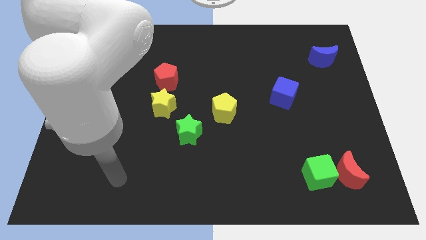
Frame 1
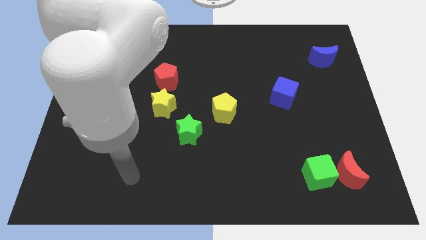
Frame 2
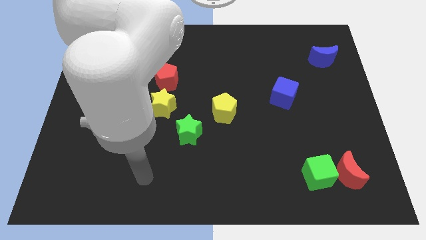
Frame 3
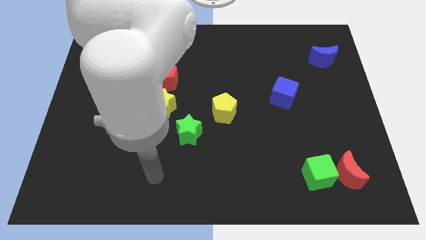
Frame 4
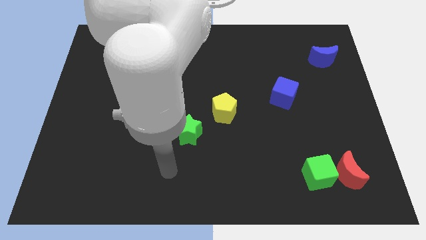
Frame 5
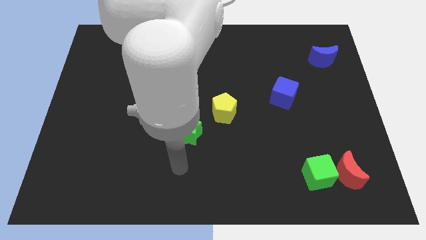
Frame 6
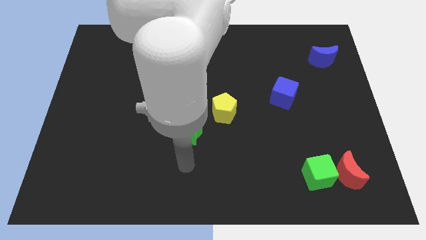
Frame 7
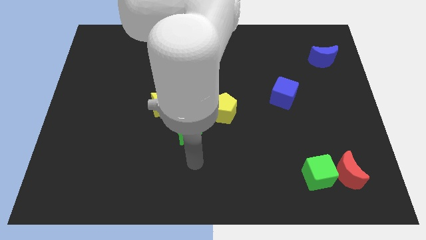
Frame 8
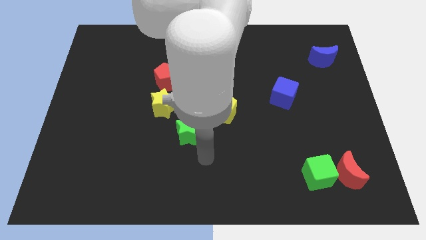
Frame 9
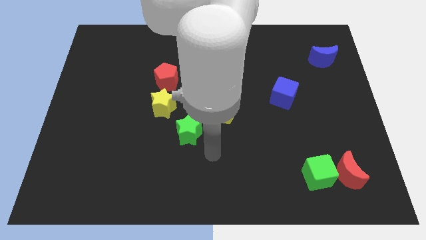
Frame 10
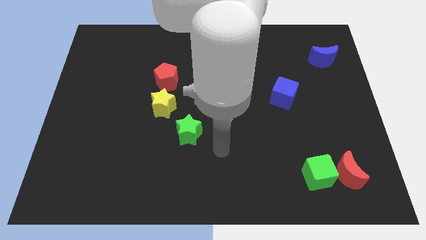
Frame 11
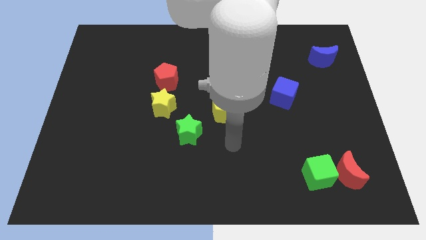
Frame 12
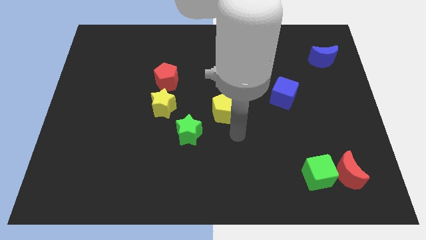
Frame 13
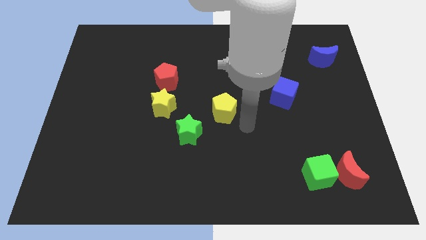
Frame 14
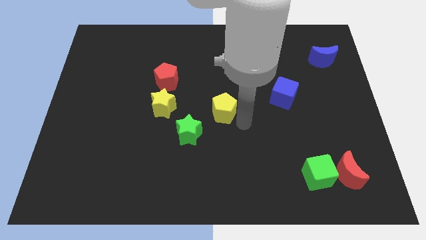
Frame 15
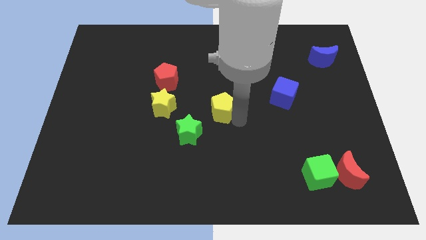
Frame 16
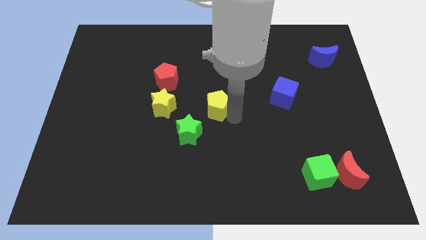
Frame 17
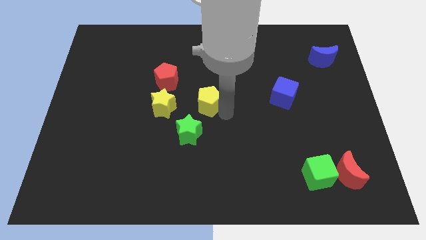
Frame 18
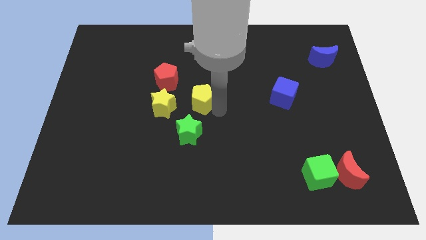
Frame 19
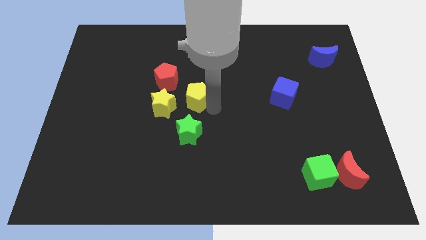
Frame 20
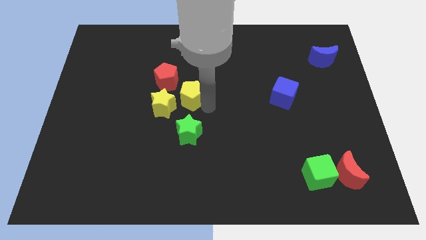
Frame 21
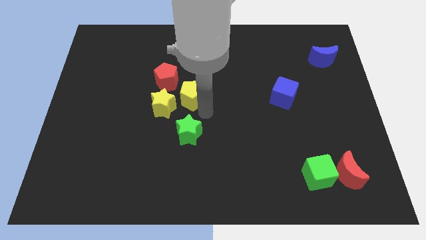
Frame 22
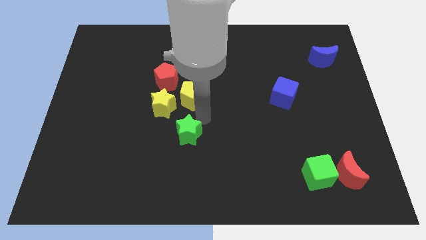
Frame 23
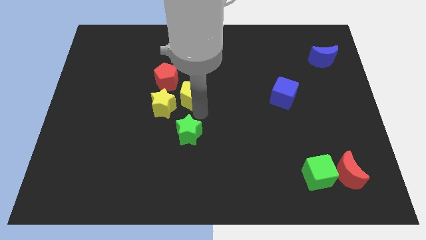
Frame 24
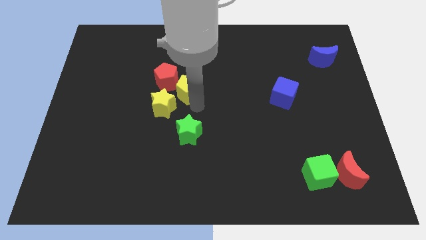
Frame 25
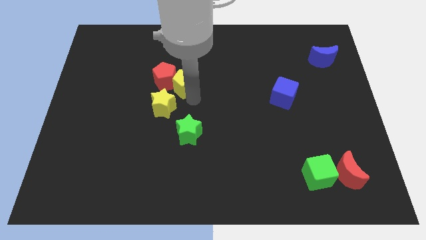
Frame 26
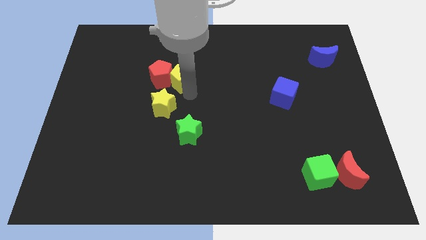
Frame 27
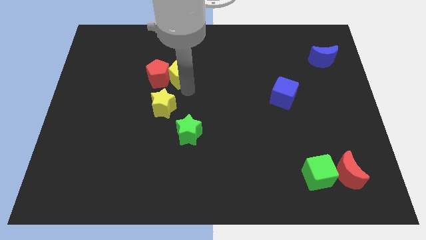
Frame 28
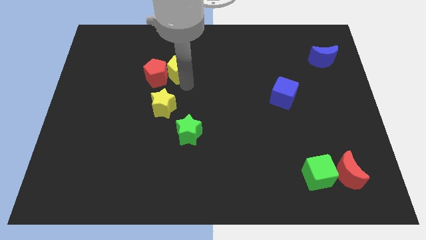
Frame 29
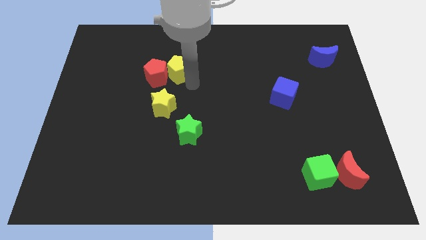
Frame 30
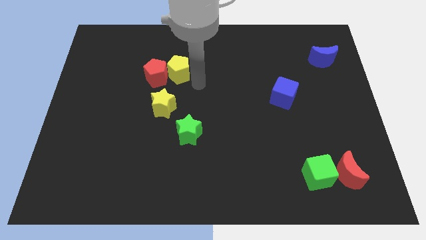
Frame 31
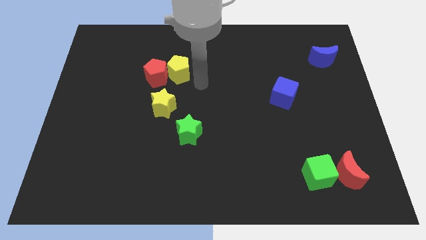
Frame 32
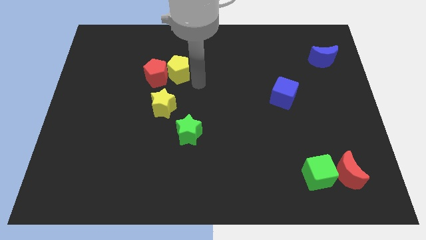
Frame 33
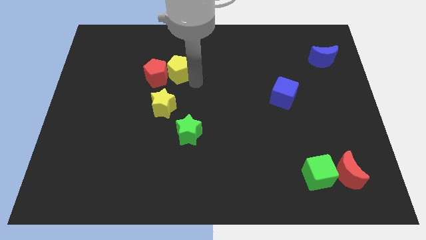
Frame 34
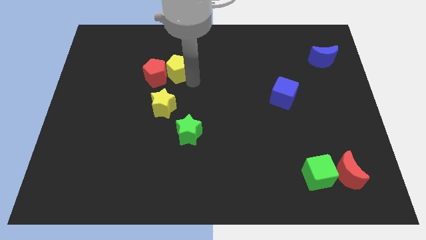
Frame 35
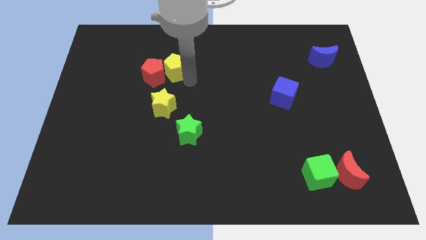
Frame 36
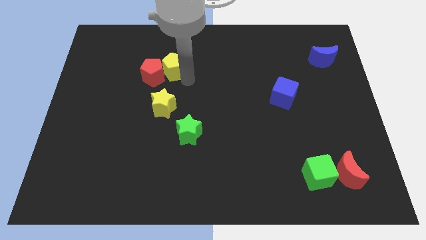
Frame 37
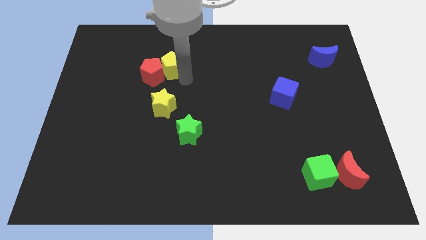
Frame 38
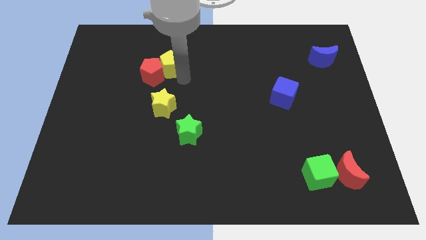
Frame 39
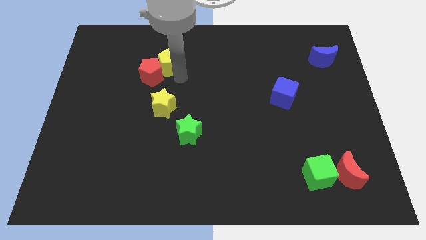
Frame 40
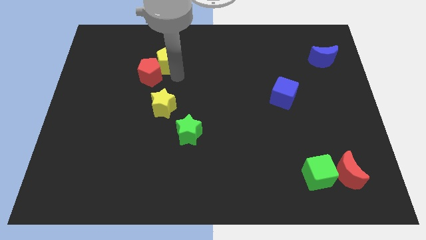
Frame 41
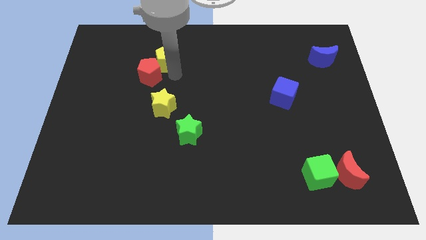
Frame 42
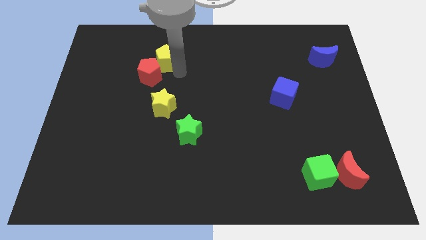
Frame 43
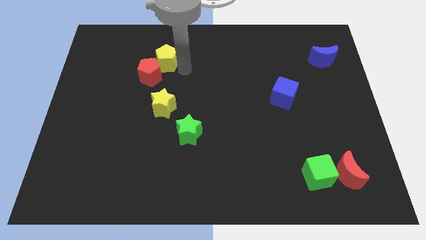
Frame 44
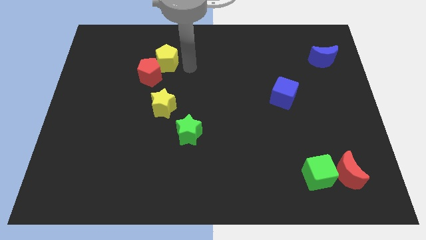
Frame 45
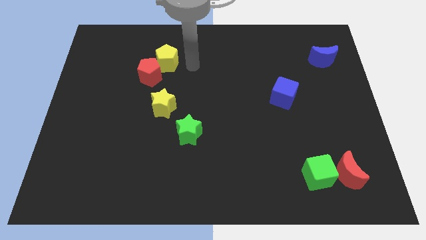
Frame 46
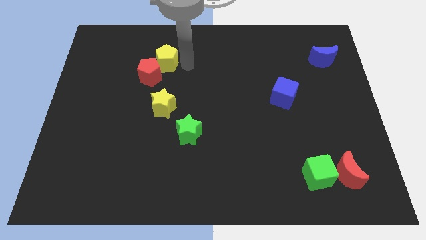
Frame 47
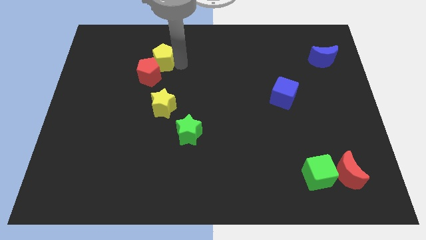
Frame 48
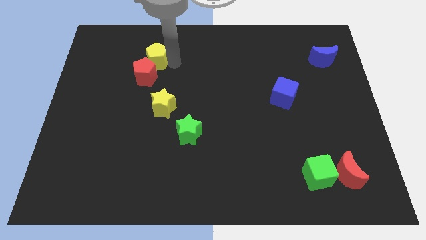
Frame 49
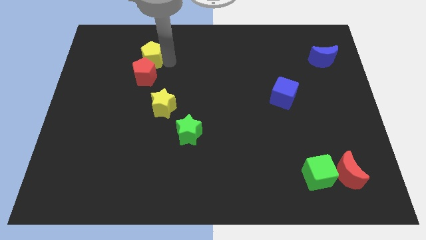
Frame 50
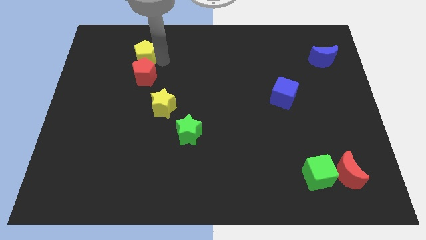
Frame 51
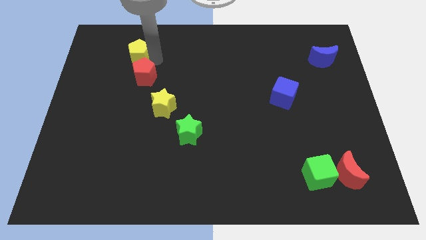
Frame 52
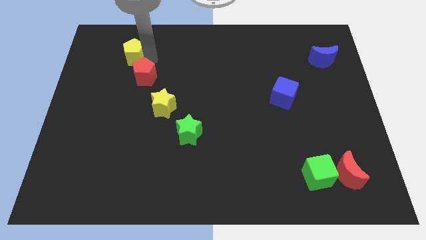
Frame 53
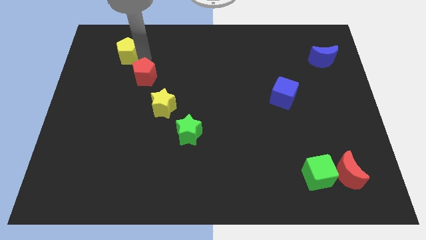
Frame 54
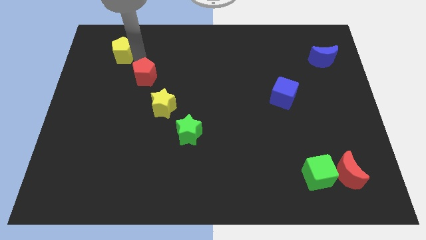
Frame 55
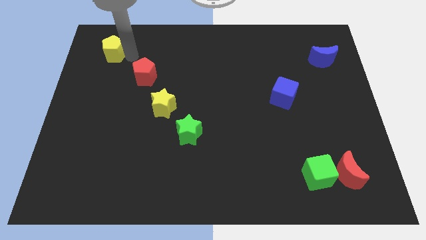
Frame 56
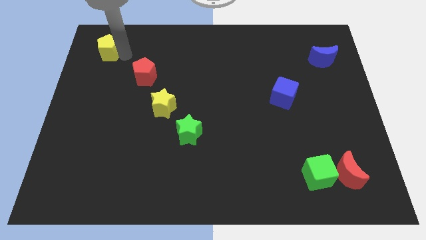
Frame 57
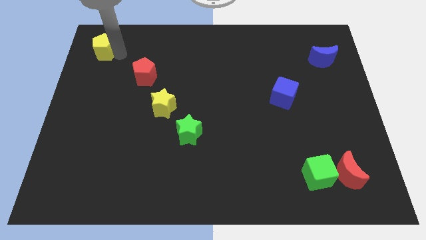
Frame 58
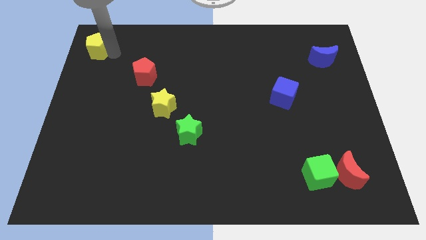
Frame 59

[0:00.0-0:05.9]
push the yellow pentagon to the top left

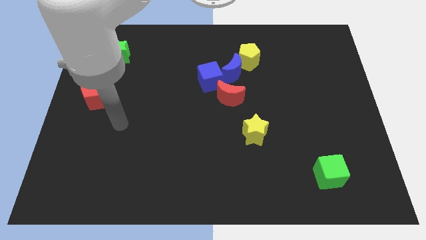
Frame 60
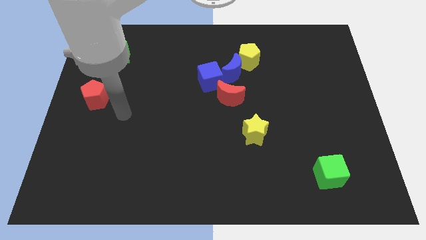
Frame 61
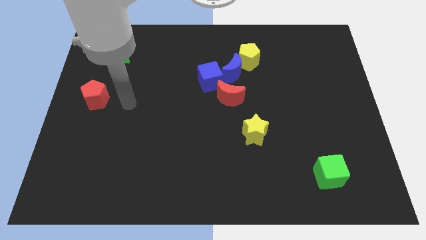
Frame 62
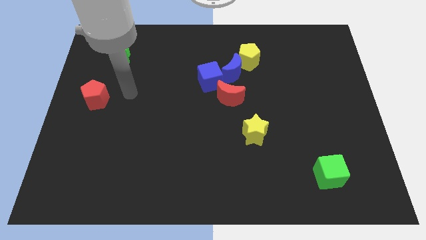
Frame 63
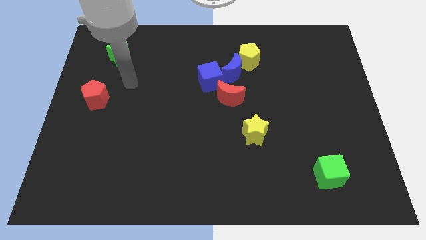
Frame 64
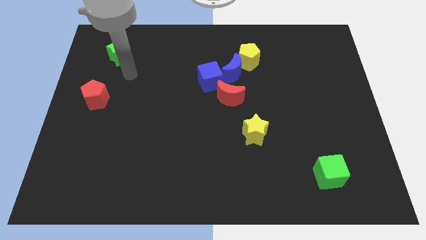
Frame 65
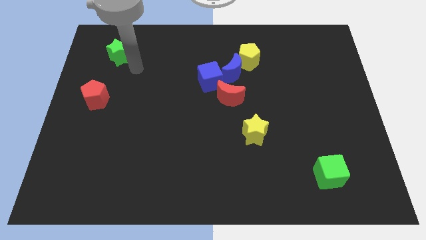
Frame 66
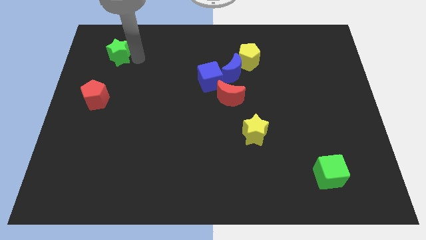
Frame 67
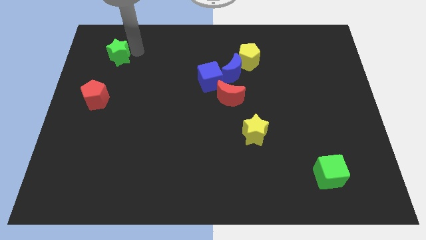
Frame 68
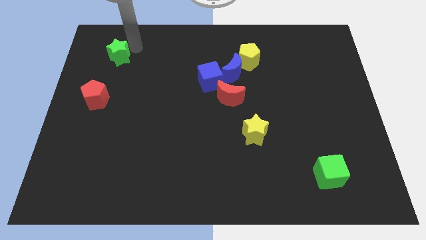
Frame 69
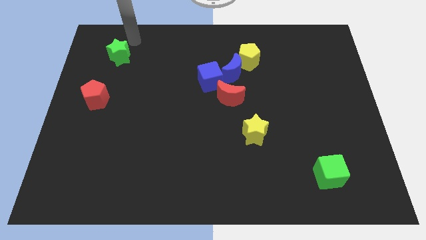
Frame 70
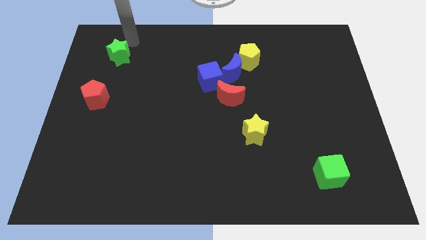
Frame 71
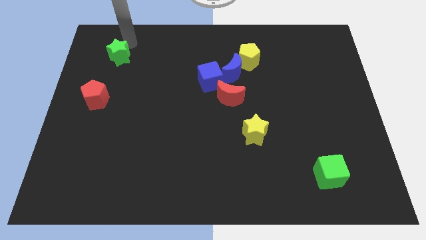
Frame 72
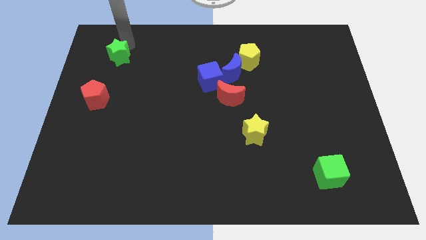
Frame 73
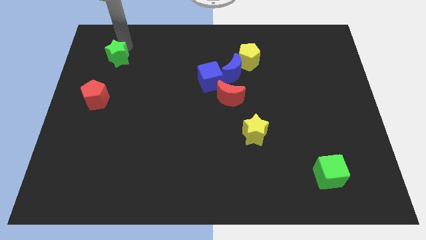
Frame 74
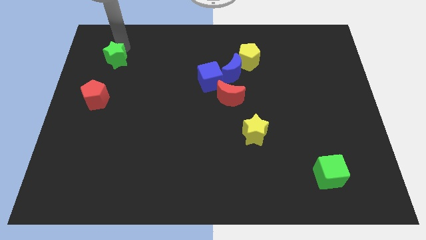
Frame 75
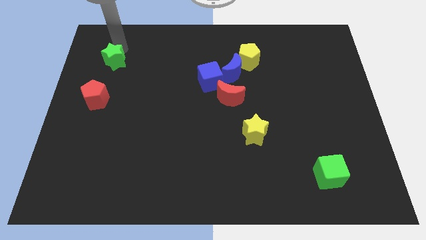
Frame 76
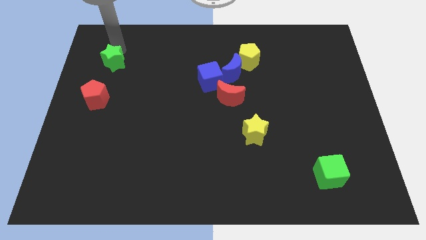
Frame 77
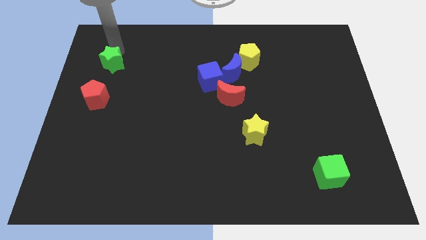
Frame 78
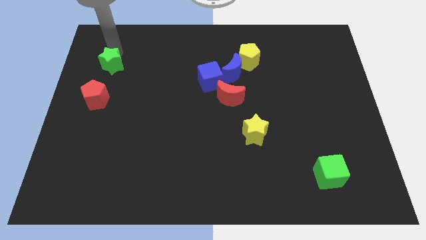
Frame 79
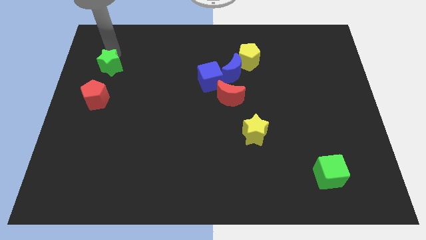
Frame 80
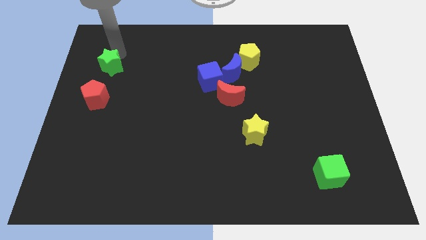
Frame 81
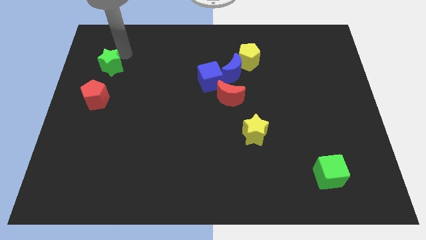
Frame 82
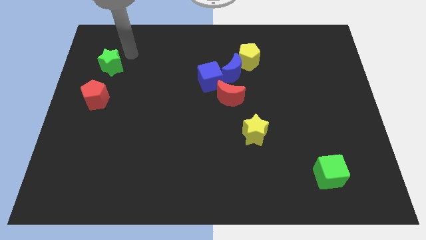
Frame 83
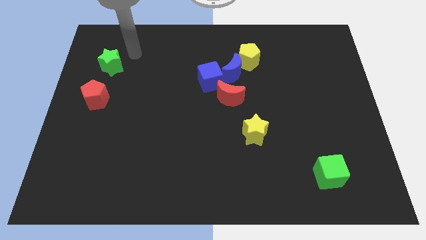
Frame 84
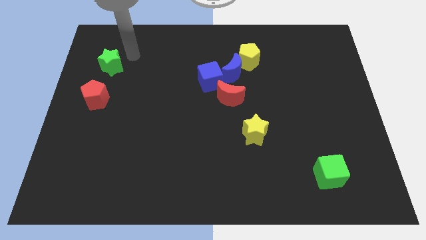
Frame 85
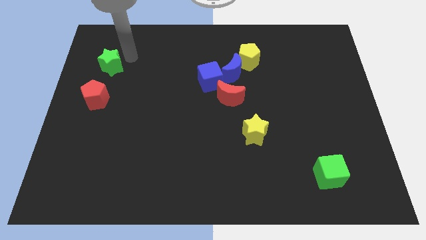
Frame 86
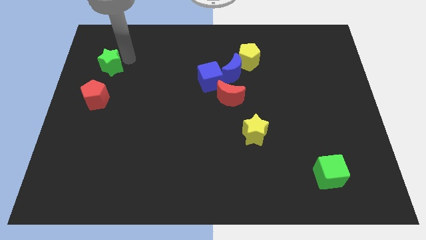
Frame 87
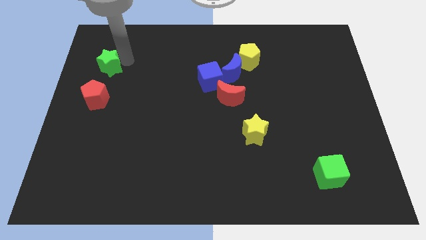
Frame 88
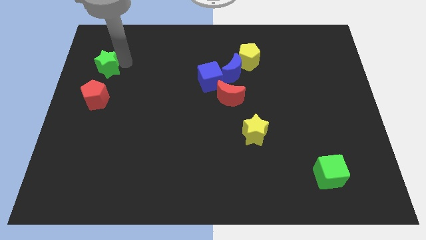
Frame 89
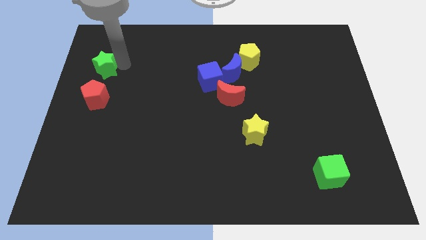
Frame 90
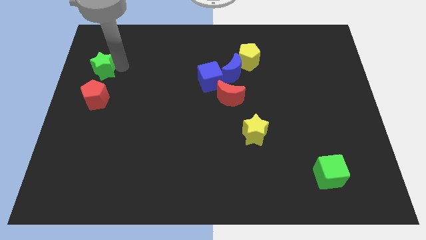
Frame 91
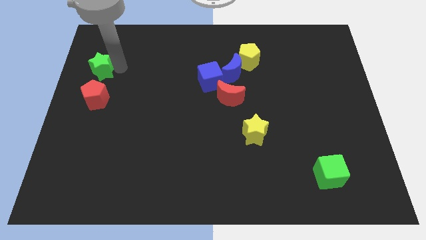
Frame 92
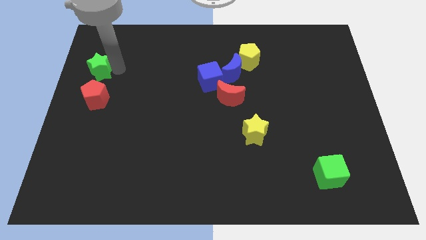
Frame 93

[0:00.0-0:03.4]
put the green star to the center left
